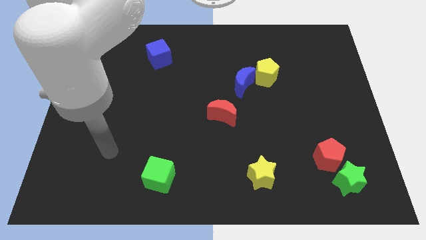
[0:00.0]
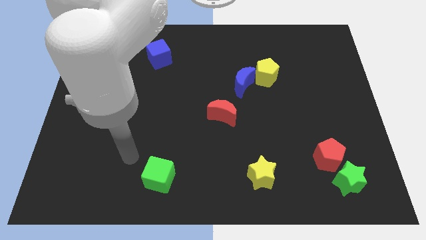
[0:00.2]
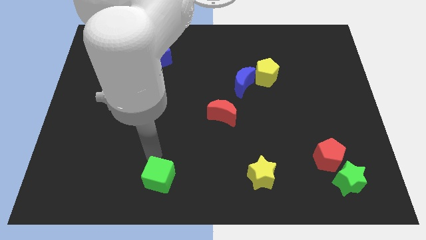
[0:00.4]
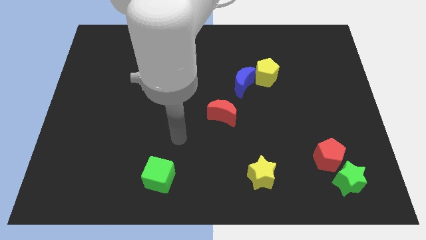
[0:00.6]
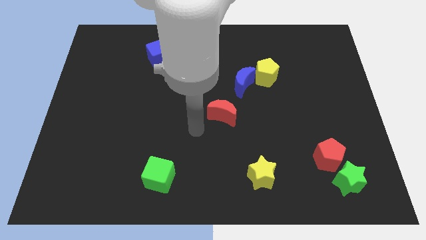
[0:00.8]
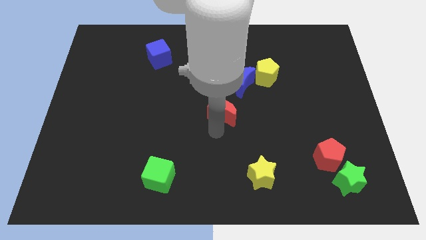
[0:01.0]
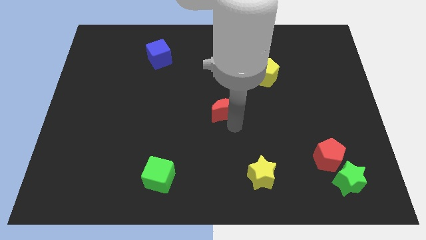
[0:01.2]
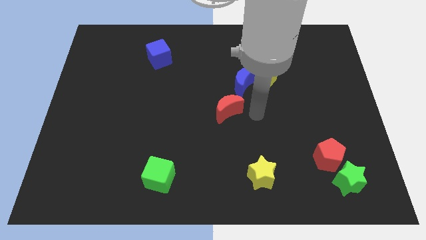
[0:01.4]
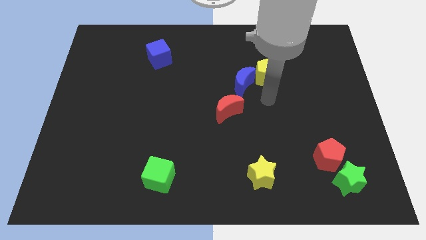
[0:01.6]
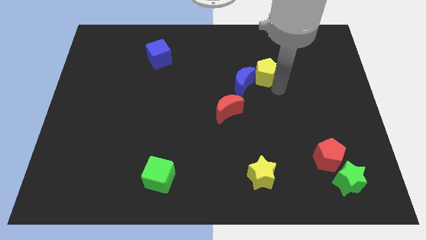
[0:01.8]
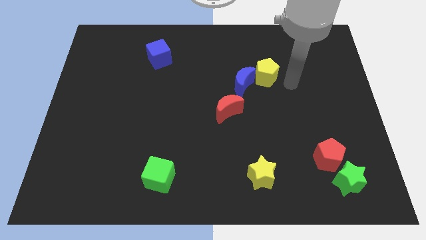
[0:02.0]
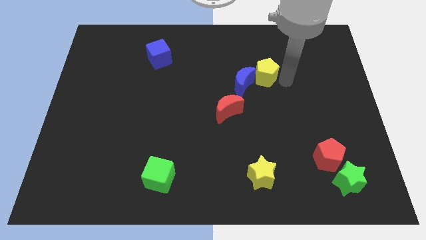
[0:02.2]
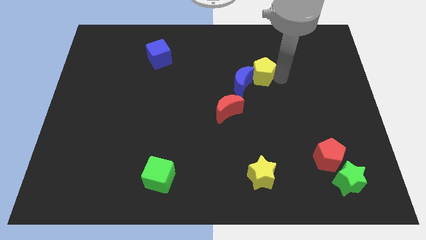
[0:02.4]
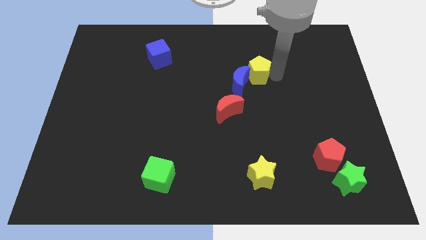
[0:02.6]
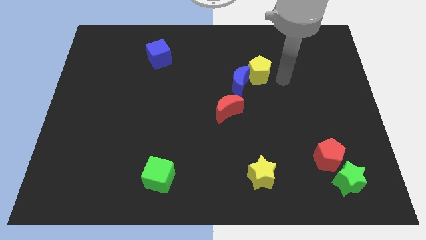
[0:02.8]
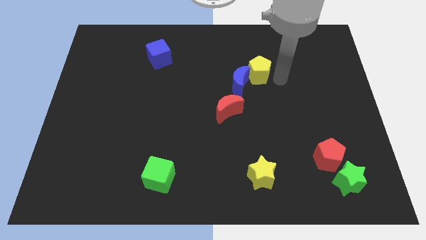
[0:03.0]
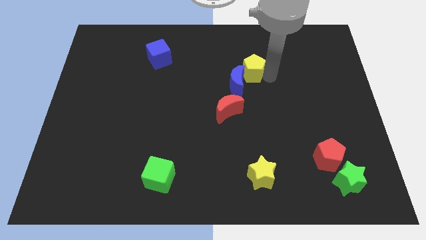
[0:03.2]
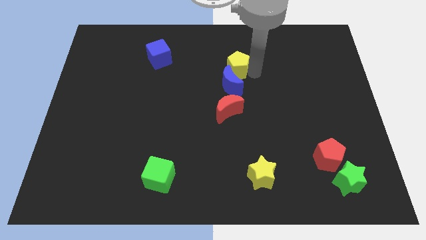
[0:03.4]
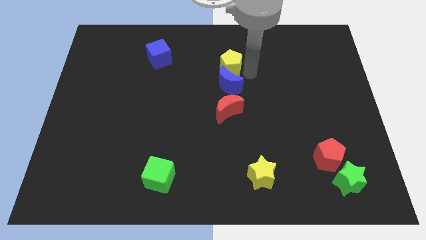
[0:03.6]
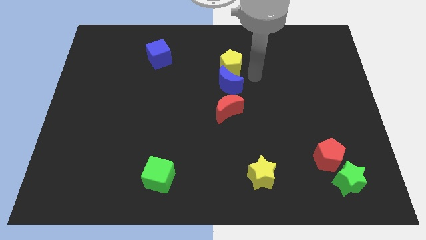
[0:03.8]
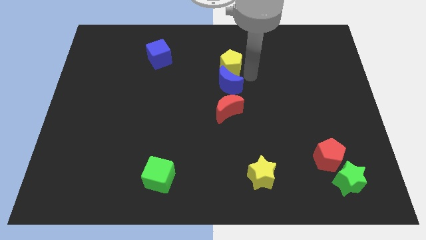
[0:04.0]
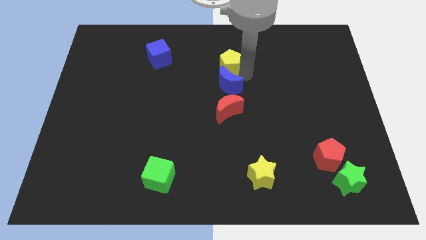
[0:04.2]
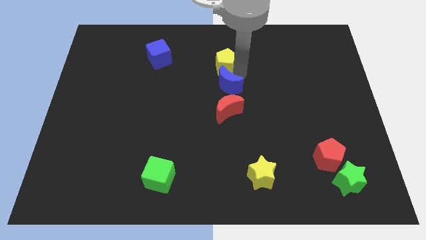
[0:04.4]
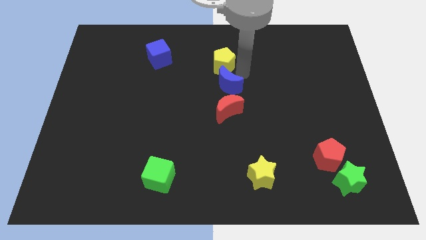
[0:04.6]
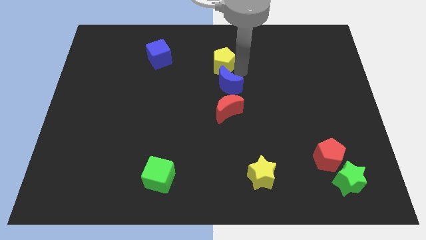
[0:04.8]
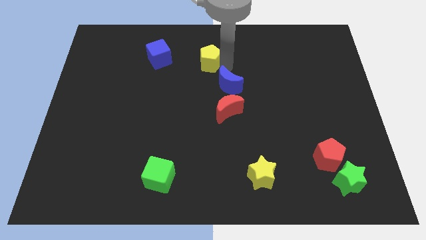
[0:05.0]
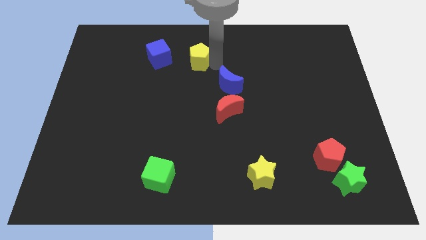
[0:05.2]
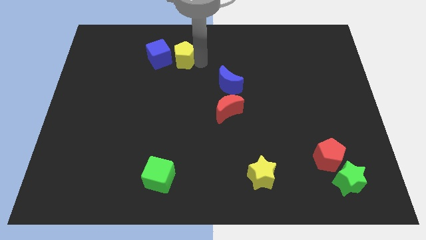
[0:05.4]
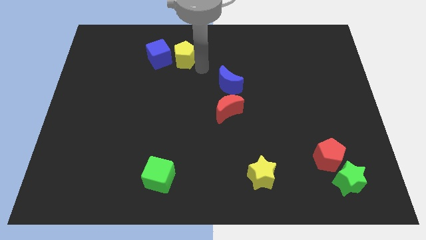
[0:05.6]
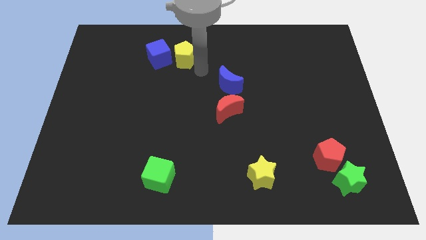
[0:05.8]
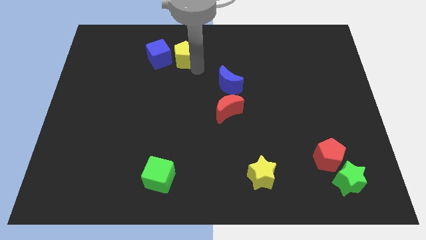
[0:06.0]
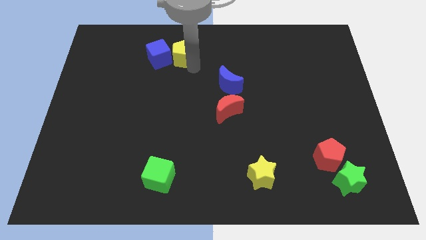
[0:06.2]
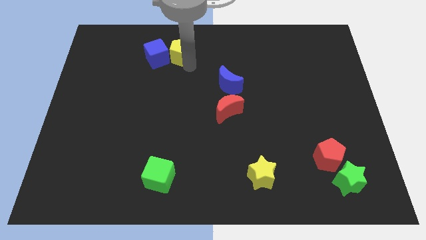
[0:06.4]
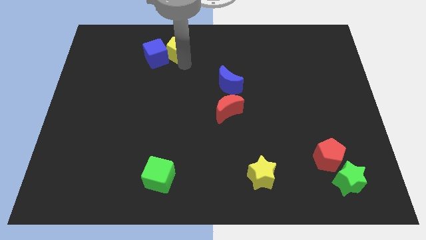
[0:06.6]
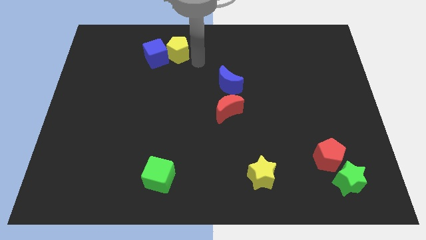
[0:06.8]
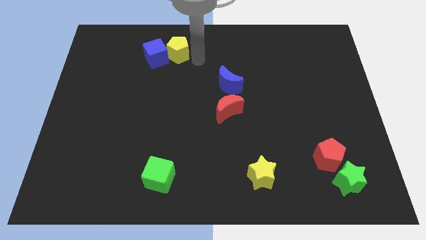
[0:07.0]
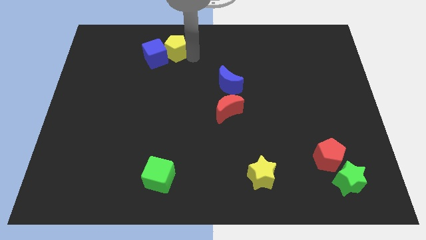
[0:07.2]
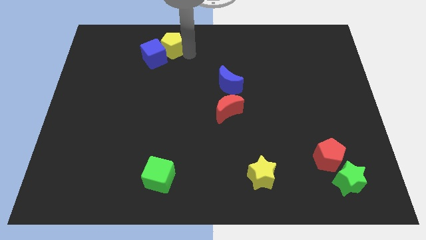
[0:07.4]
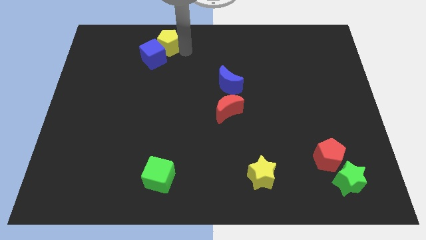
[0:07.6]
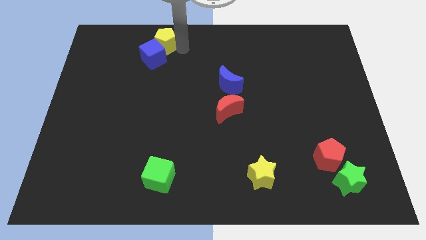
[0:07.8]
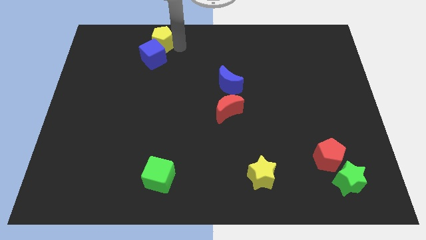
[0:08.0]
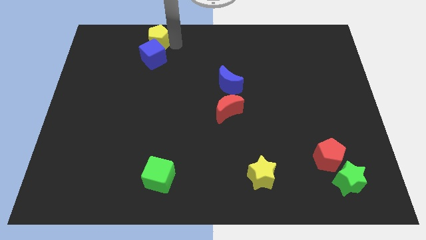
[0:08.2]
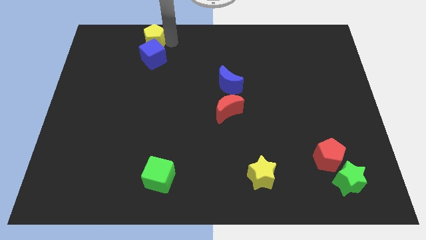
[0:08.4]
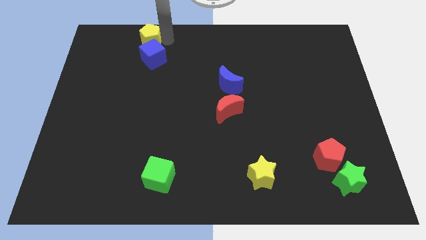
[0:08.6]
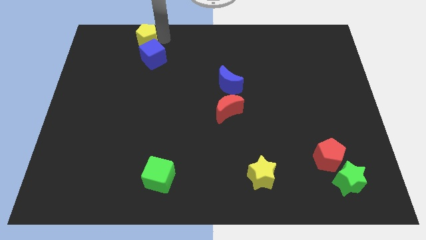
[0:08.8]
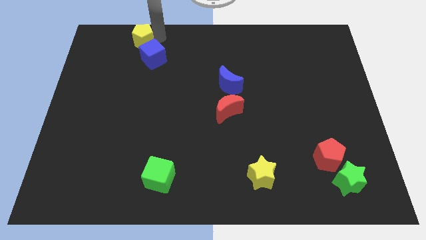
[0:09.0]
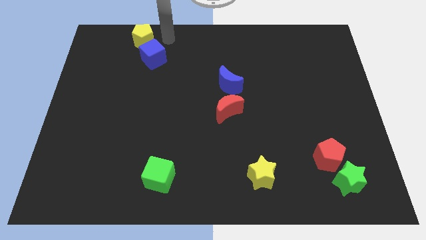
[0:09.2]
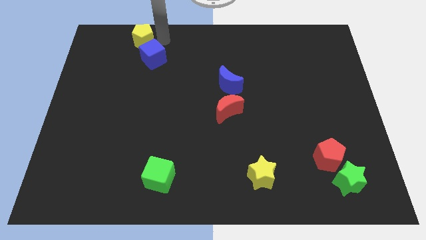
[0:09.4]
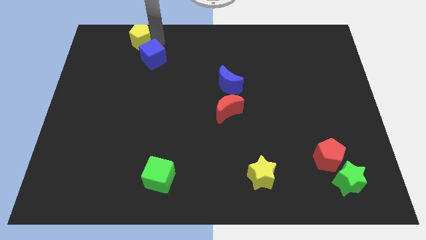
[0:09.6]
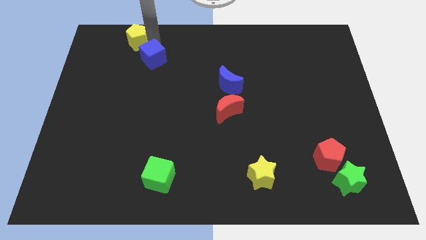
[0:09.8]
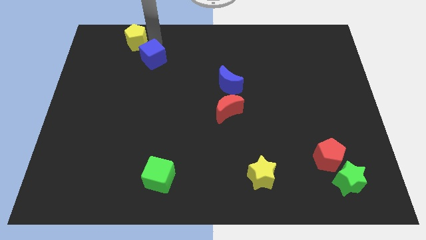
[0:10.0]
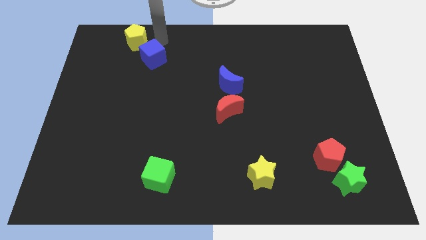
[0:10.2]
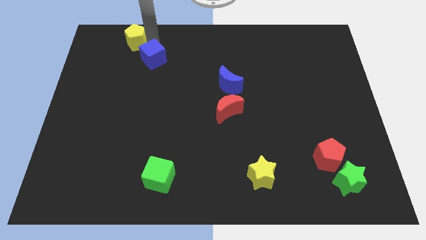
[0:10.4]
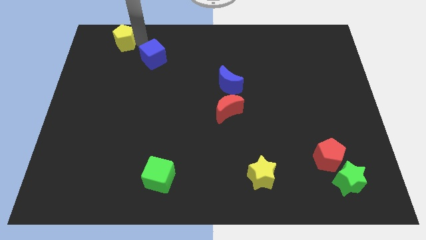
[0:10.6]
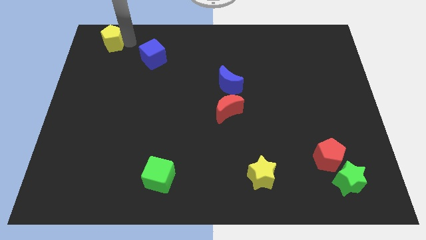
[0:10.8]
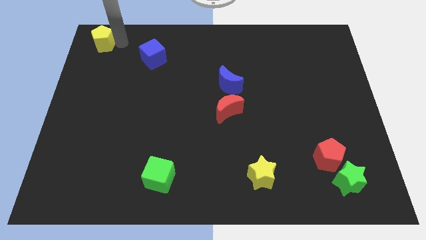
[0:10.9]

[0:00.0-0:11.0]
move the yellow pentagon to the top left of the board
